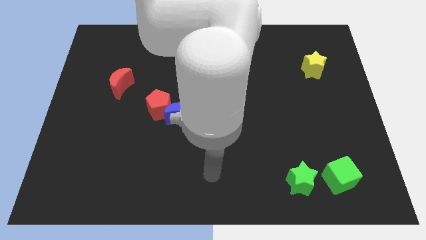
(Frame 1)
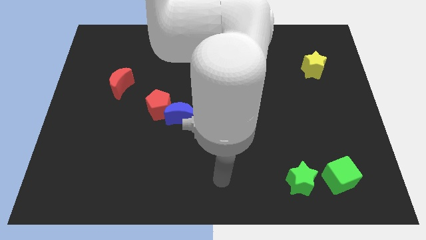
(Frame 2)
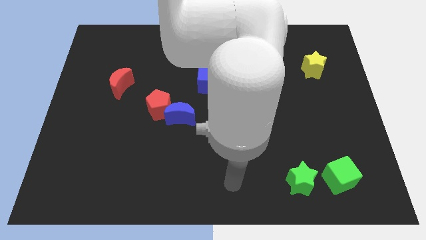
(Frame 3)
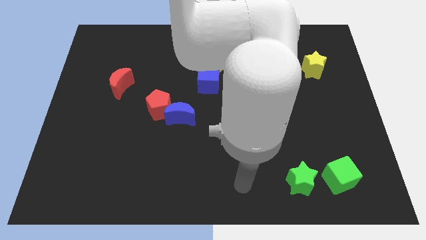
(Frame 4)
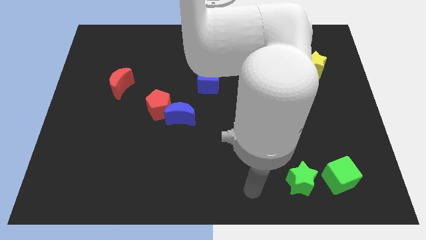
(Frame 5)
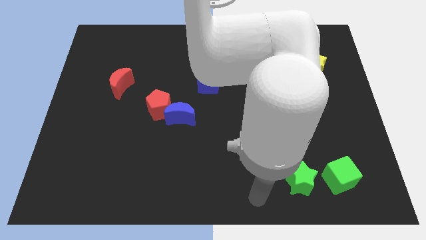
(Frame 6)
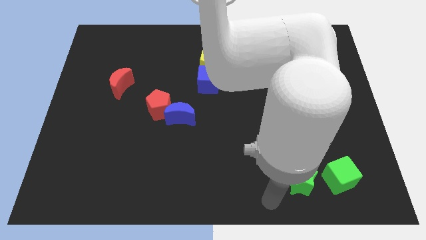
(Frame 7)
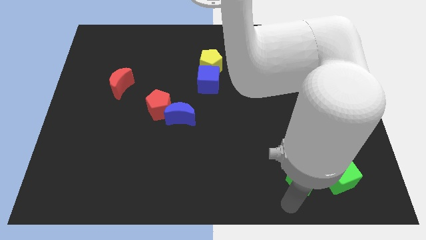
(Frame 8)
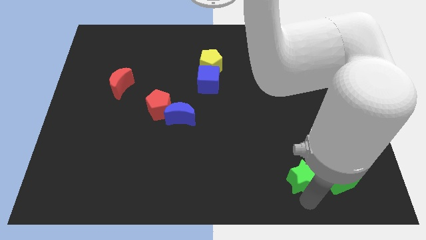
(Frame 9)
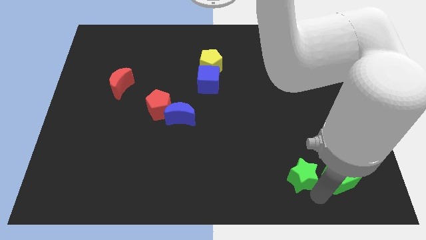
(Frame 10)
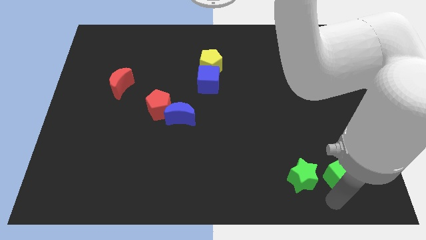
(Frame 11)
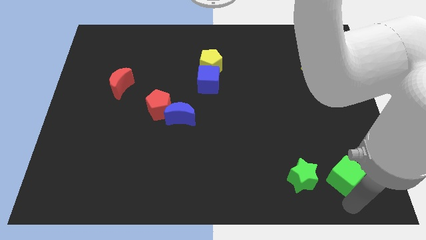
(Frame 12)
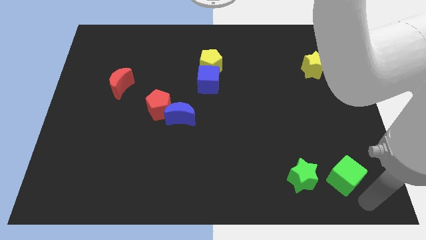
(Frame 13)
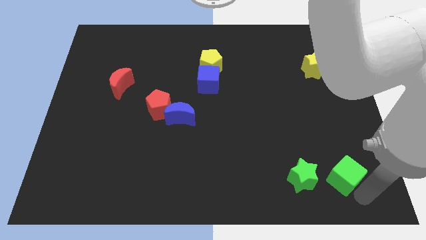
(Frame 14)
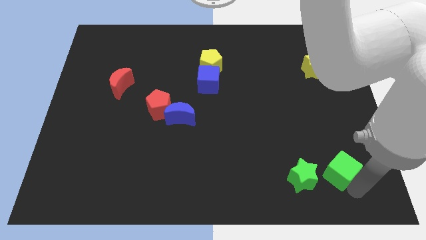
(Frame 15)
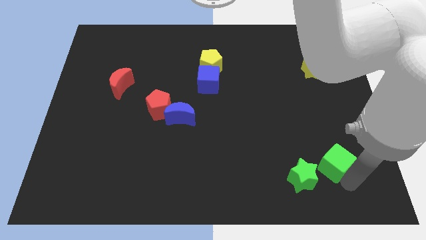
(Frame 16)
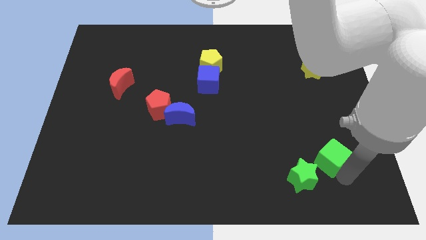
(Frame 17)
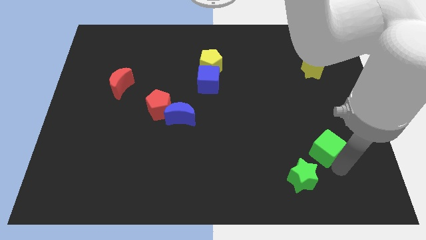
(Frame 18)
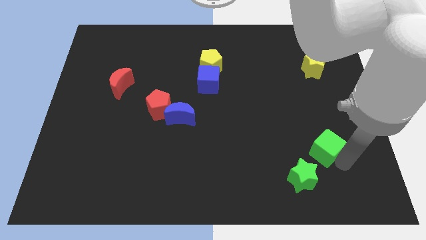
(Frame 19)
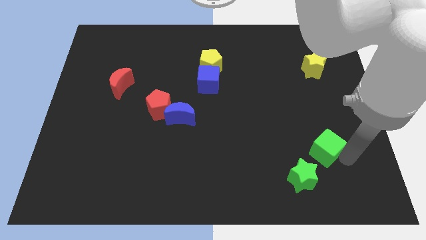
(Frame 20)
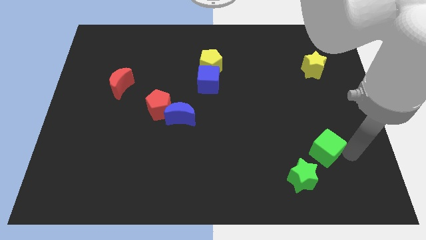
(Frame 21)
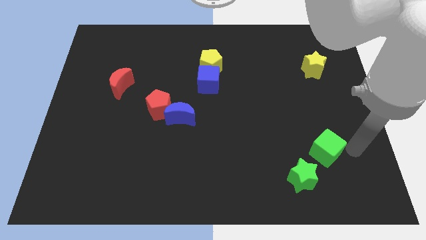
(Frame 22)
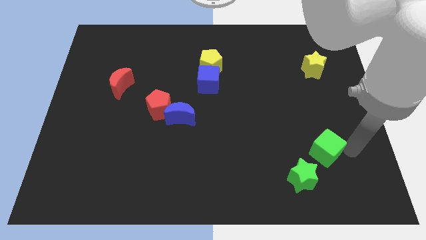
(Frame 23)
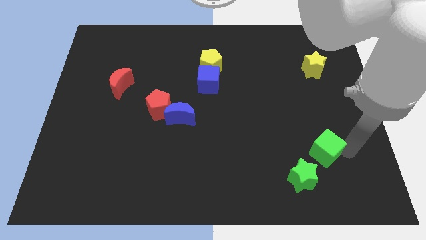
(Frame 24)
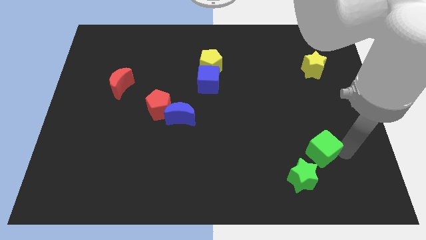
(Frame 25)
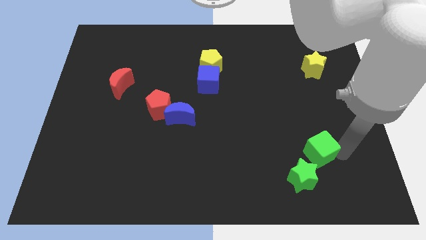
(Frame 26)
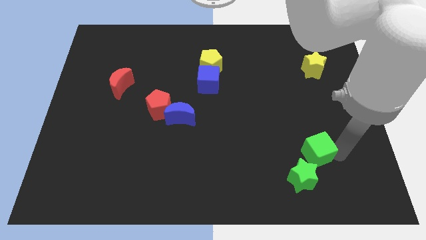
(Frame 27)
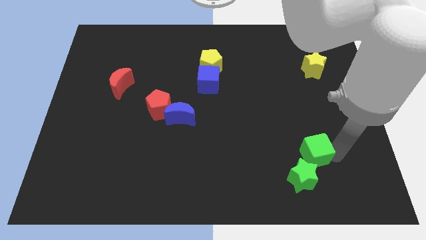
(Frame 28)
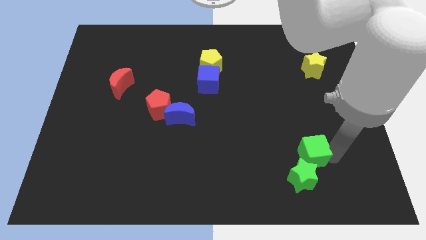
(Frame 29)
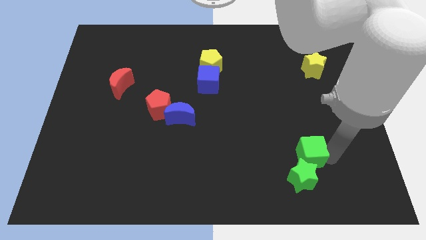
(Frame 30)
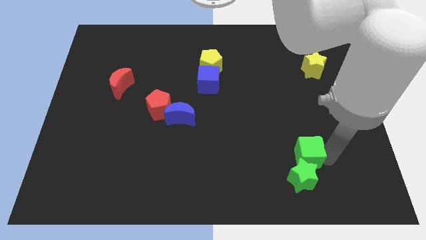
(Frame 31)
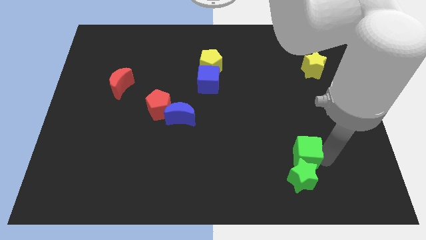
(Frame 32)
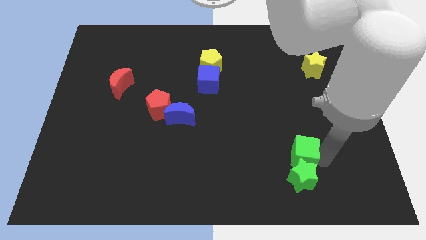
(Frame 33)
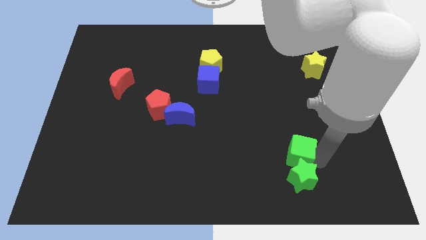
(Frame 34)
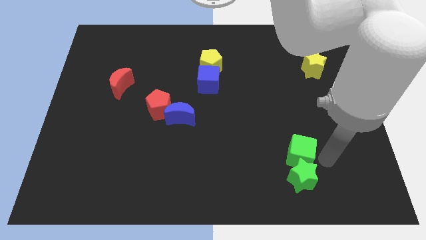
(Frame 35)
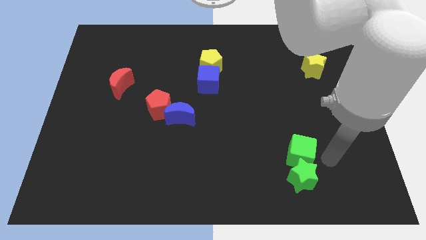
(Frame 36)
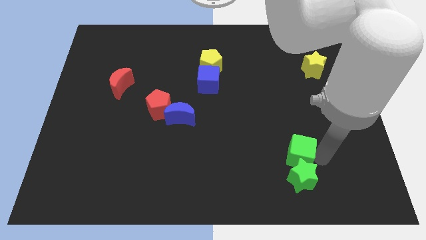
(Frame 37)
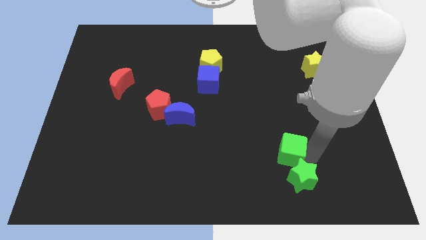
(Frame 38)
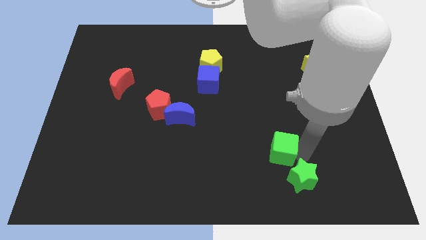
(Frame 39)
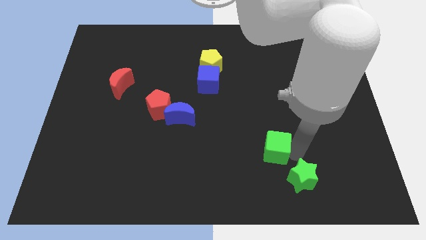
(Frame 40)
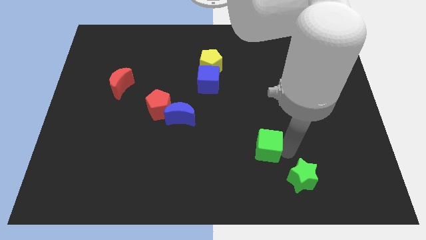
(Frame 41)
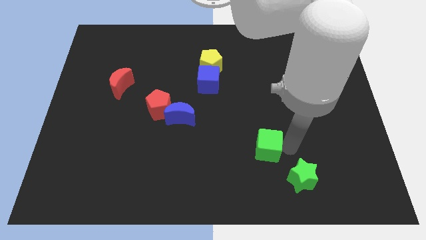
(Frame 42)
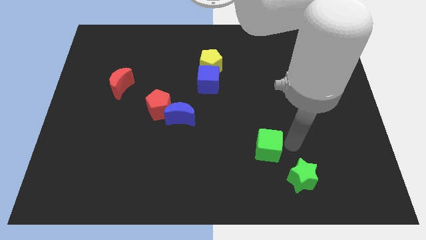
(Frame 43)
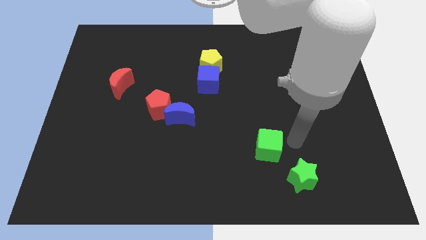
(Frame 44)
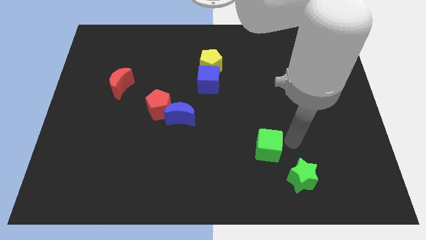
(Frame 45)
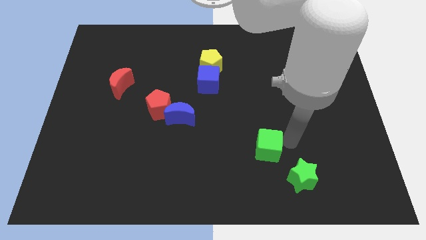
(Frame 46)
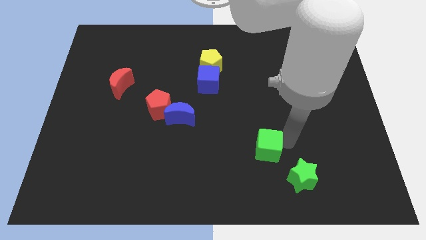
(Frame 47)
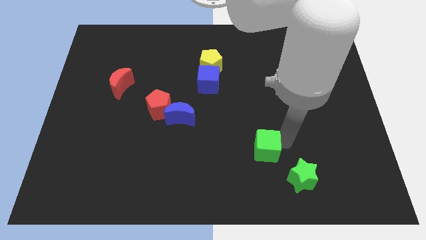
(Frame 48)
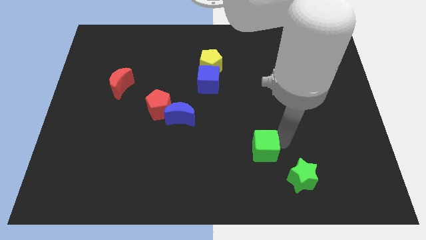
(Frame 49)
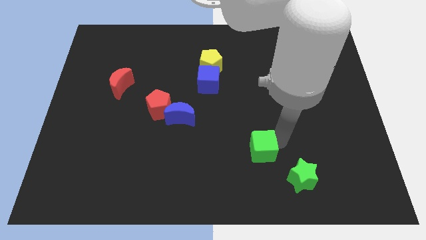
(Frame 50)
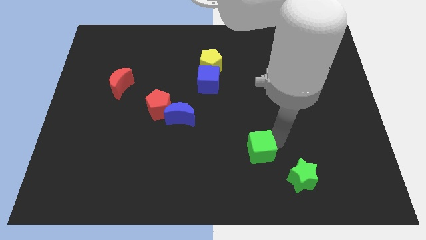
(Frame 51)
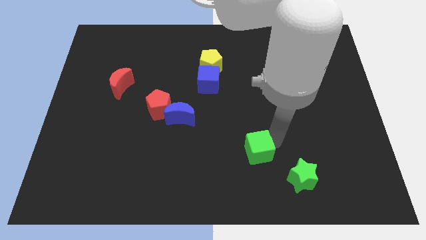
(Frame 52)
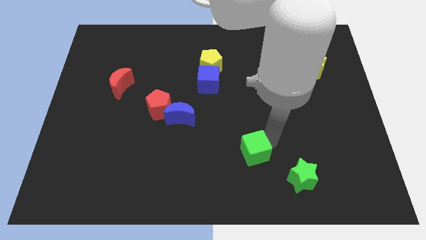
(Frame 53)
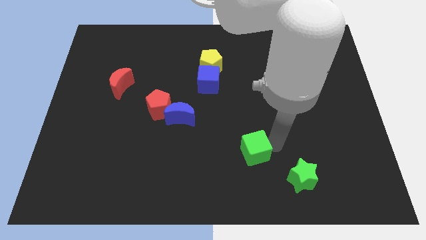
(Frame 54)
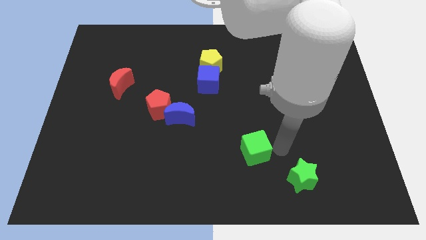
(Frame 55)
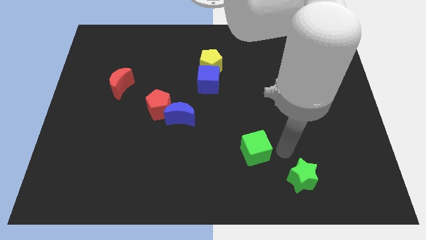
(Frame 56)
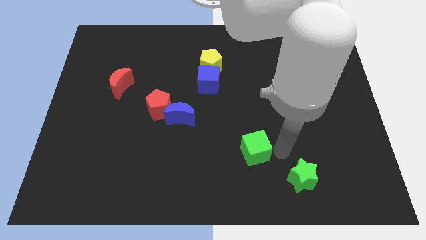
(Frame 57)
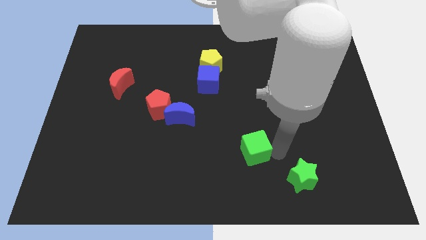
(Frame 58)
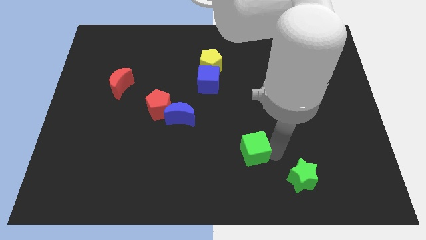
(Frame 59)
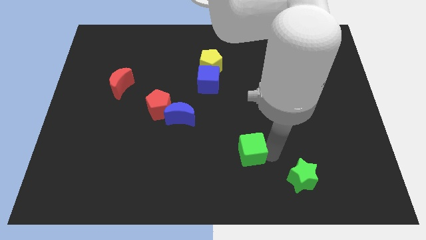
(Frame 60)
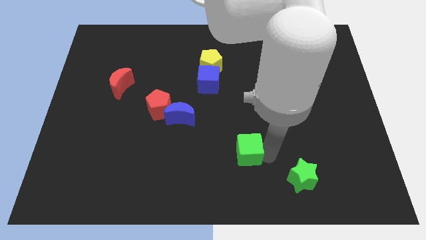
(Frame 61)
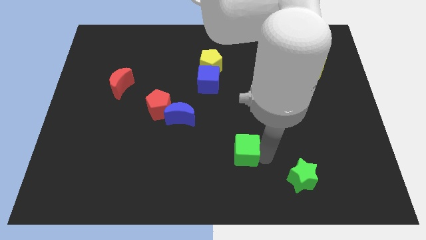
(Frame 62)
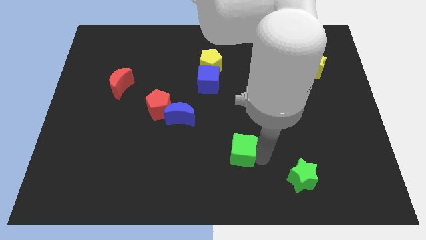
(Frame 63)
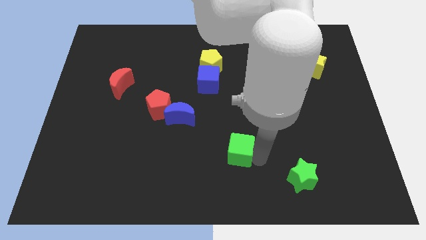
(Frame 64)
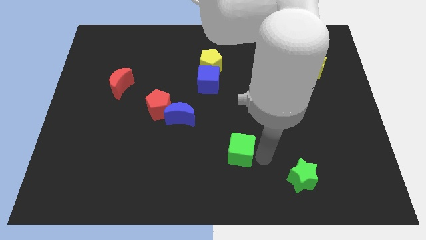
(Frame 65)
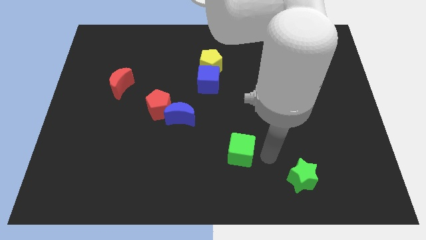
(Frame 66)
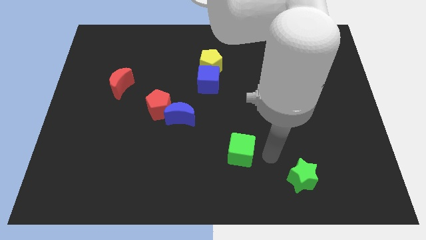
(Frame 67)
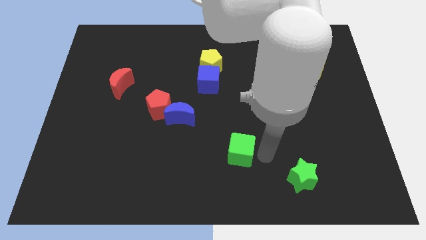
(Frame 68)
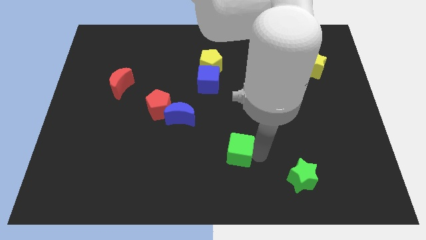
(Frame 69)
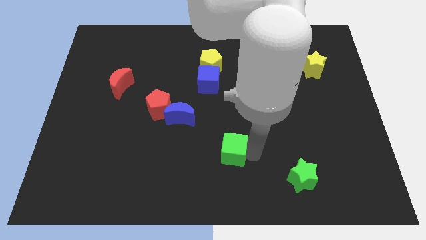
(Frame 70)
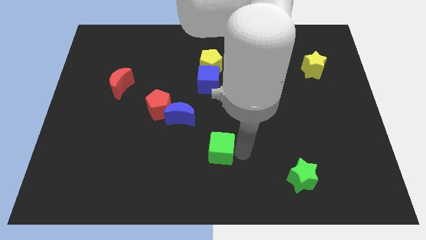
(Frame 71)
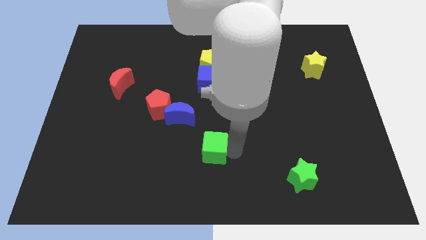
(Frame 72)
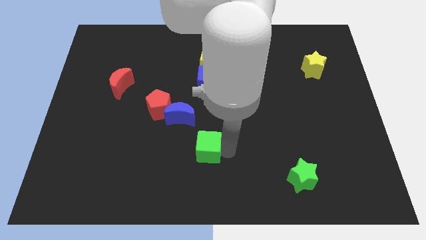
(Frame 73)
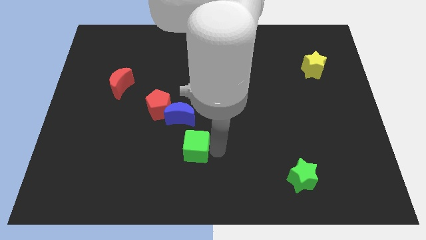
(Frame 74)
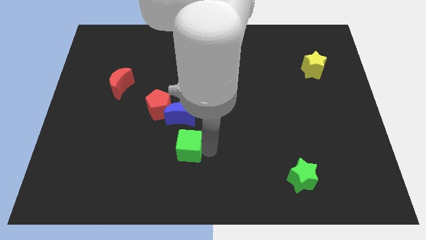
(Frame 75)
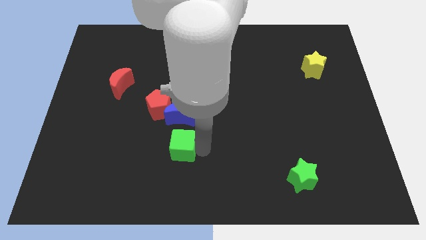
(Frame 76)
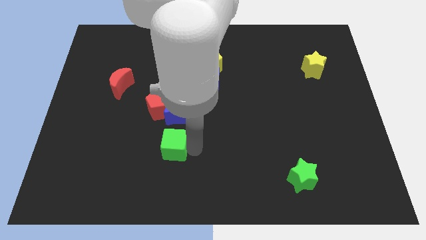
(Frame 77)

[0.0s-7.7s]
slide the green cube to the bottom side of the red pentagon
